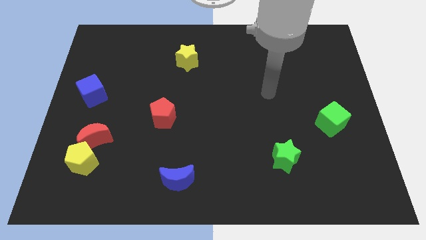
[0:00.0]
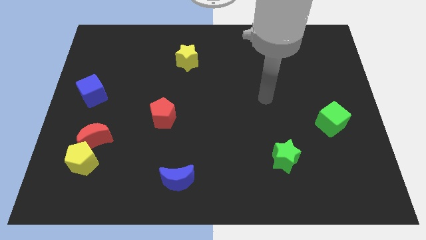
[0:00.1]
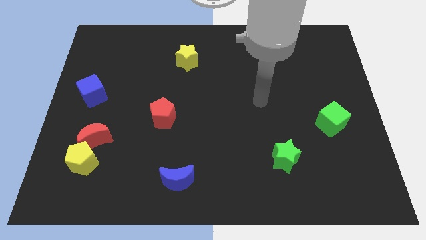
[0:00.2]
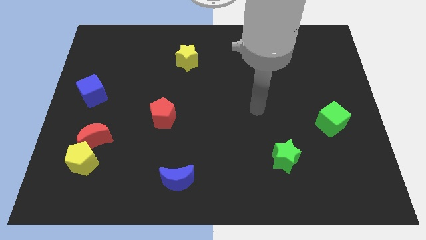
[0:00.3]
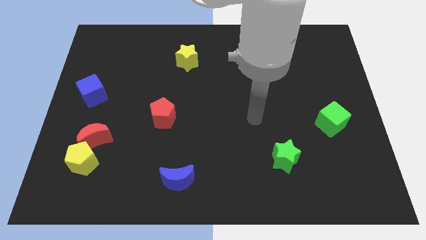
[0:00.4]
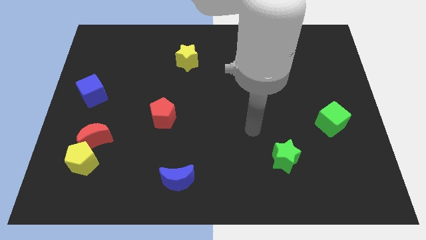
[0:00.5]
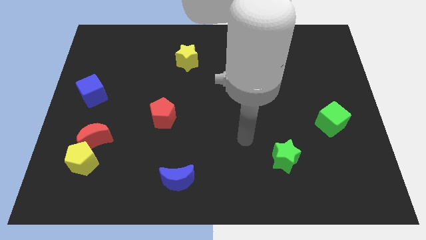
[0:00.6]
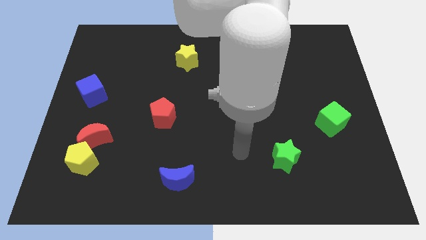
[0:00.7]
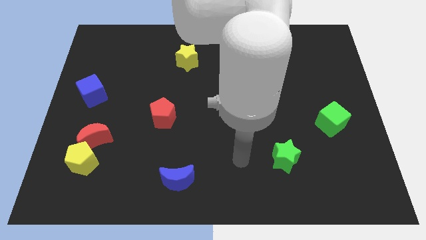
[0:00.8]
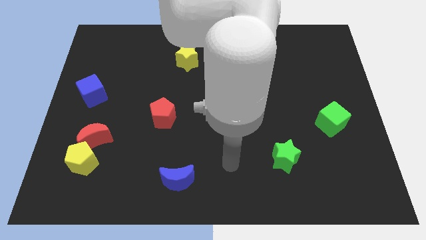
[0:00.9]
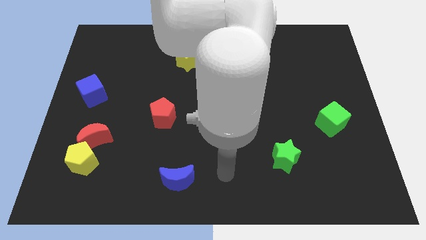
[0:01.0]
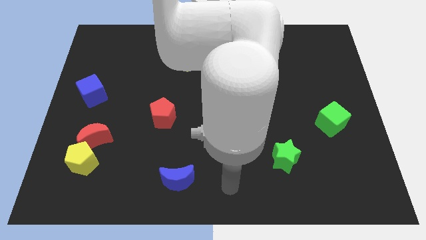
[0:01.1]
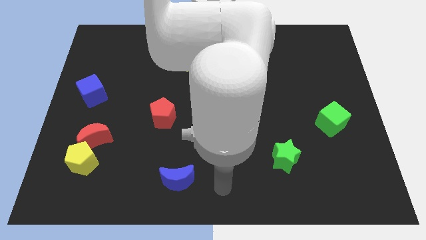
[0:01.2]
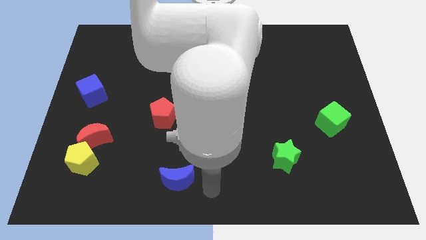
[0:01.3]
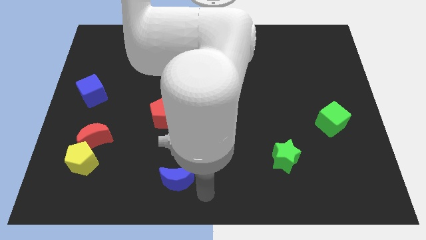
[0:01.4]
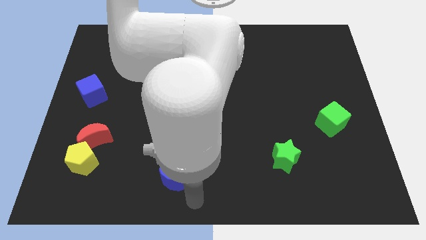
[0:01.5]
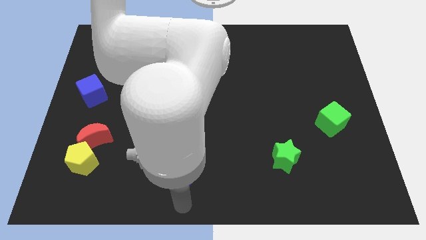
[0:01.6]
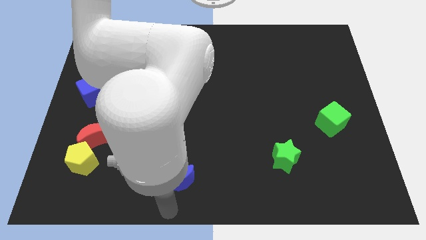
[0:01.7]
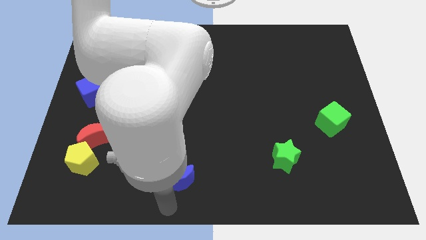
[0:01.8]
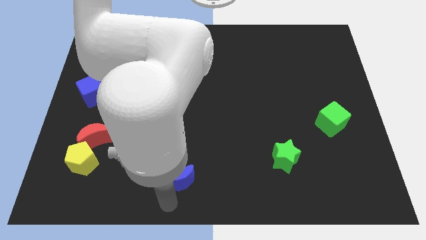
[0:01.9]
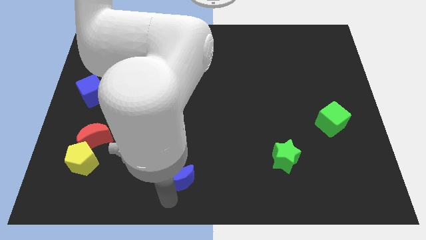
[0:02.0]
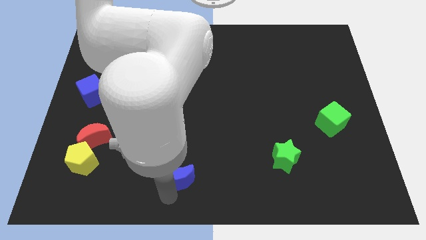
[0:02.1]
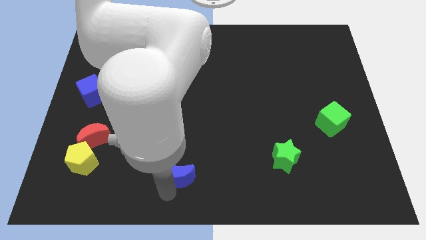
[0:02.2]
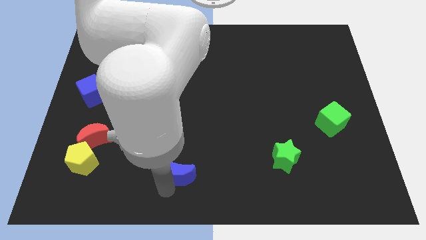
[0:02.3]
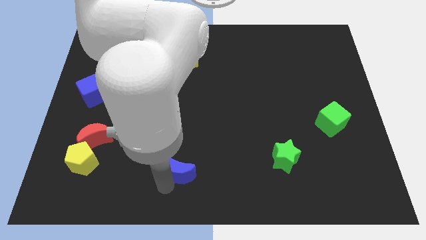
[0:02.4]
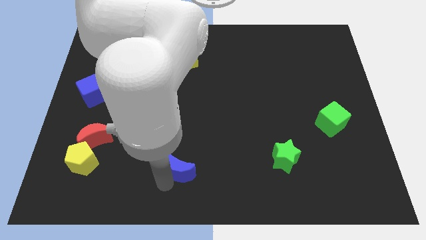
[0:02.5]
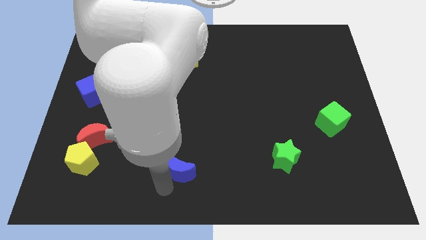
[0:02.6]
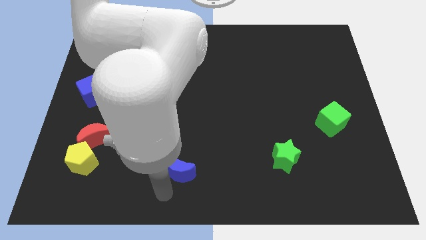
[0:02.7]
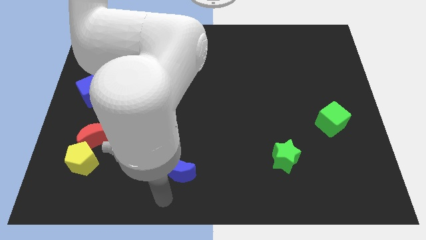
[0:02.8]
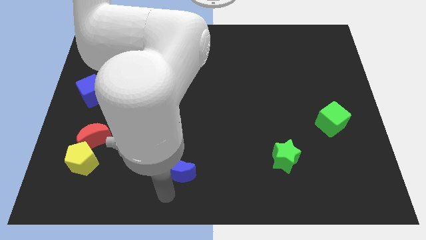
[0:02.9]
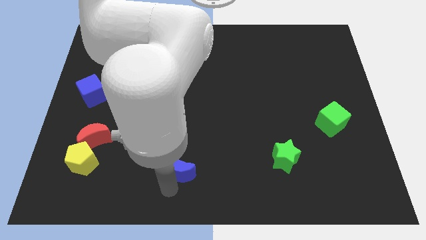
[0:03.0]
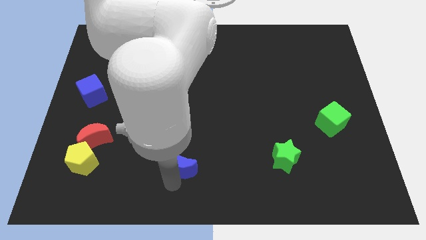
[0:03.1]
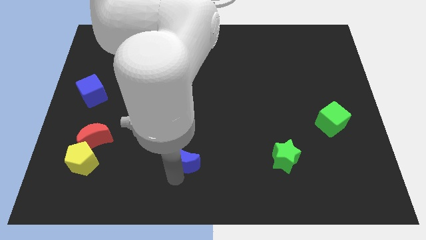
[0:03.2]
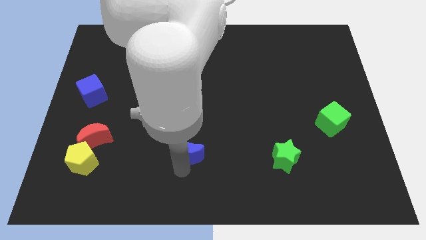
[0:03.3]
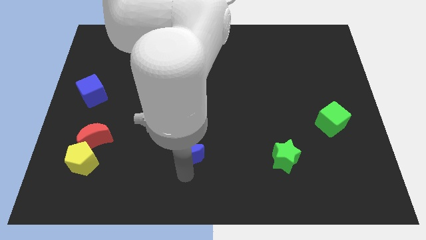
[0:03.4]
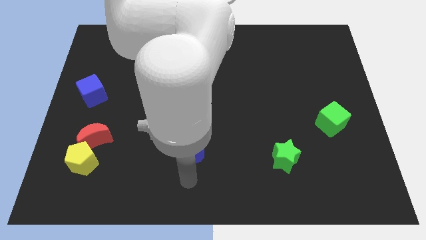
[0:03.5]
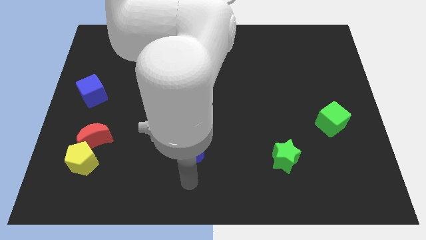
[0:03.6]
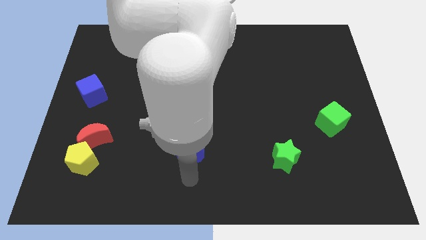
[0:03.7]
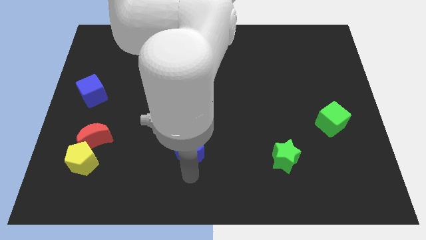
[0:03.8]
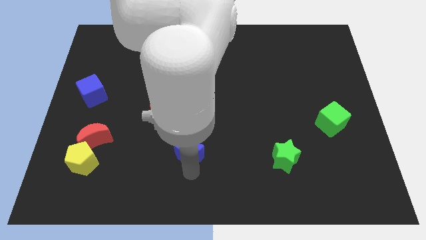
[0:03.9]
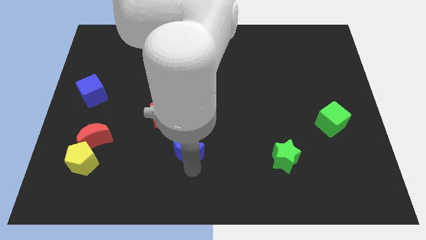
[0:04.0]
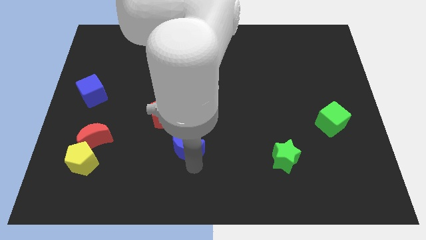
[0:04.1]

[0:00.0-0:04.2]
move the blue moon up slightly

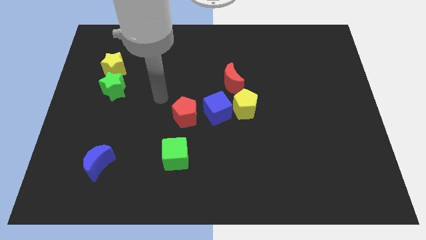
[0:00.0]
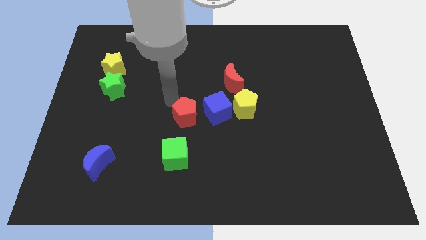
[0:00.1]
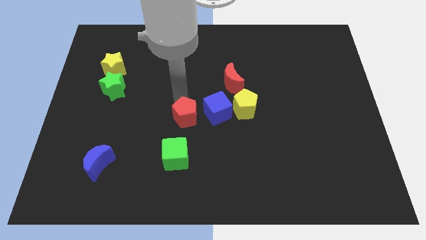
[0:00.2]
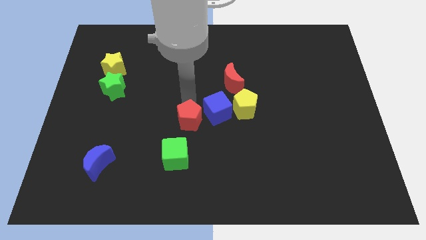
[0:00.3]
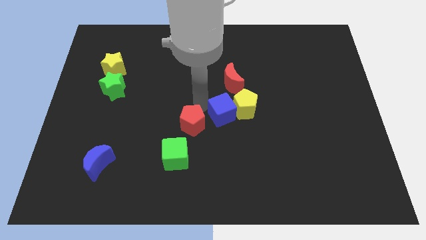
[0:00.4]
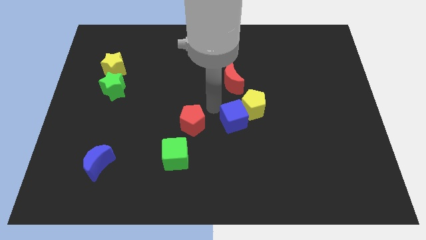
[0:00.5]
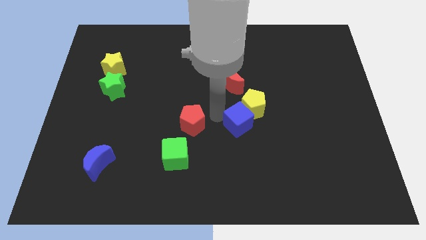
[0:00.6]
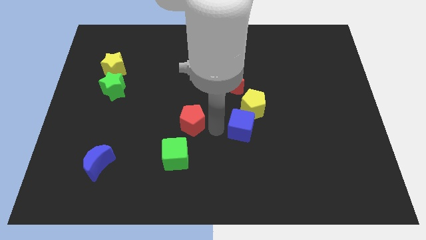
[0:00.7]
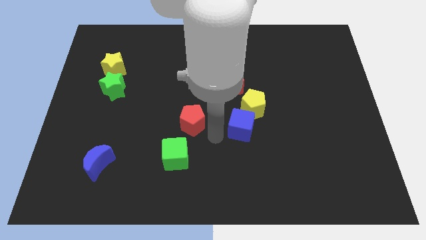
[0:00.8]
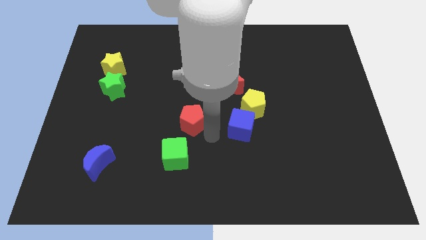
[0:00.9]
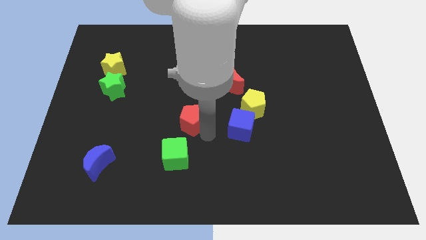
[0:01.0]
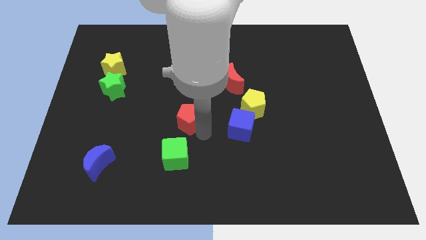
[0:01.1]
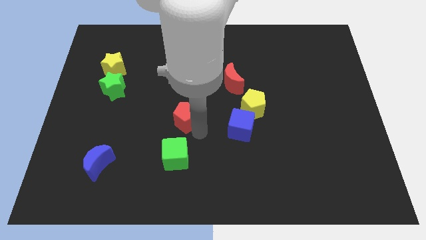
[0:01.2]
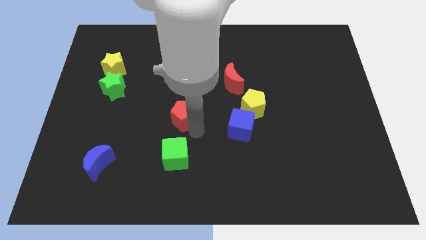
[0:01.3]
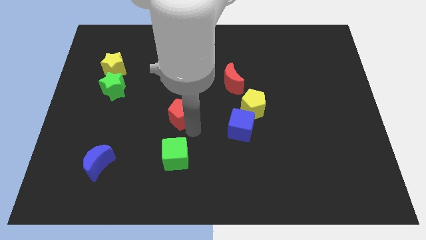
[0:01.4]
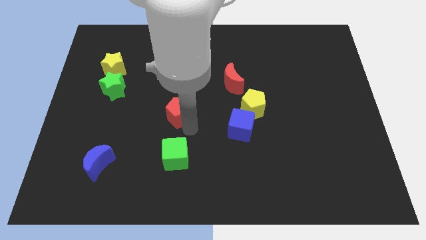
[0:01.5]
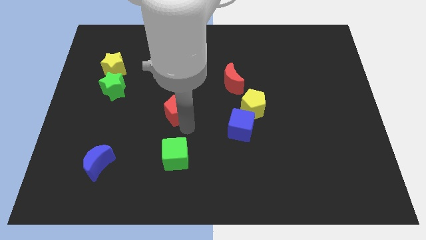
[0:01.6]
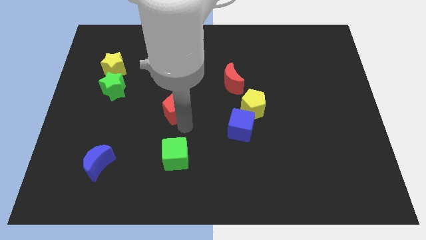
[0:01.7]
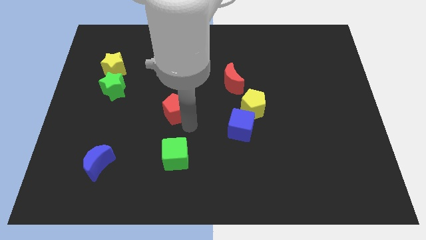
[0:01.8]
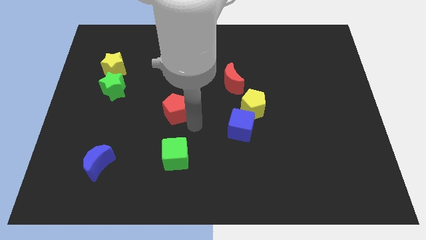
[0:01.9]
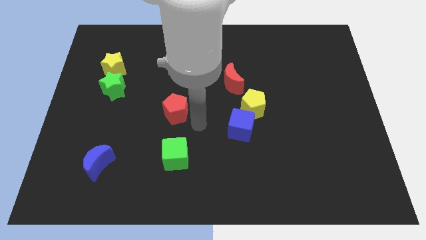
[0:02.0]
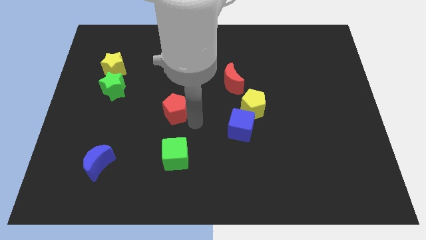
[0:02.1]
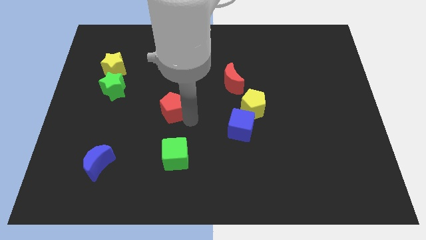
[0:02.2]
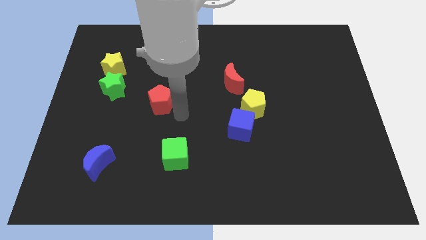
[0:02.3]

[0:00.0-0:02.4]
move the red pentagon up and then left somewhat

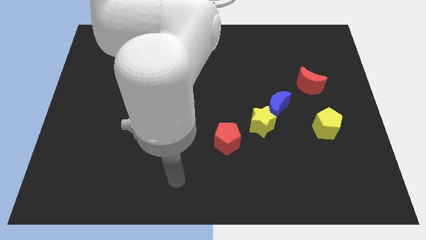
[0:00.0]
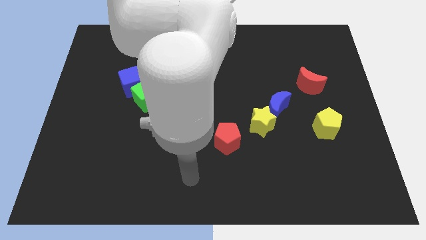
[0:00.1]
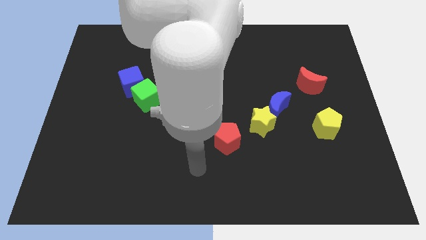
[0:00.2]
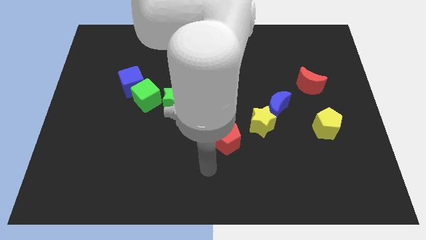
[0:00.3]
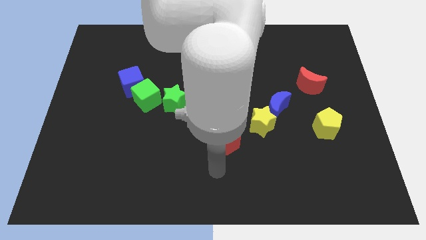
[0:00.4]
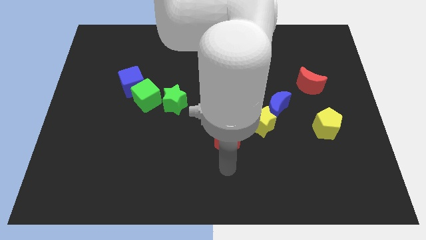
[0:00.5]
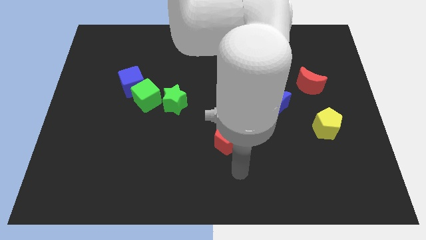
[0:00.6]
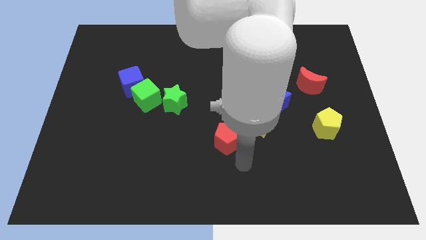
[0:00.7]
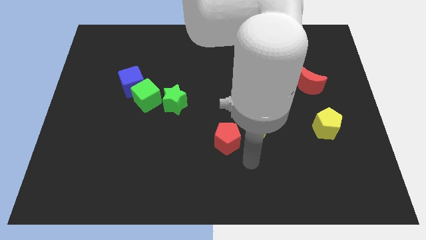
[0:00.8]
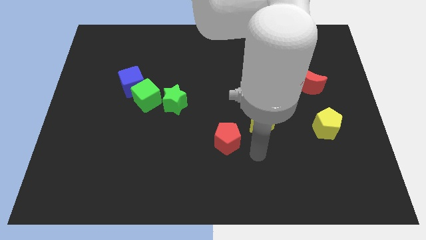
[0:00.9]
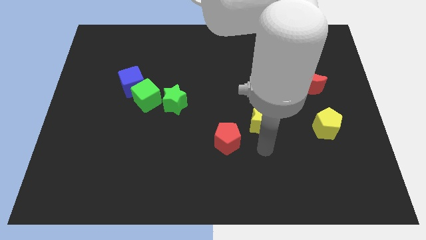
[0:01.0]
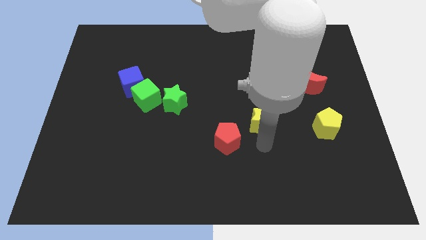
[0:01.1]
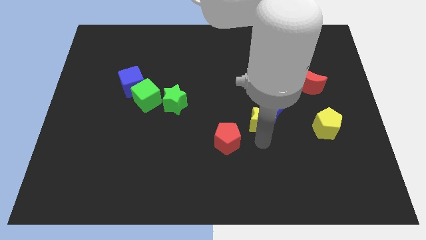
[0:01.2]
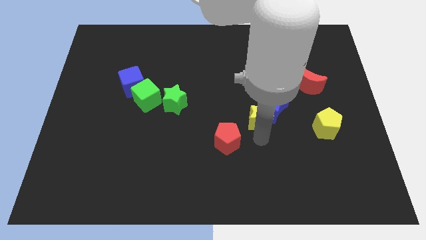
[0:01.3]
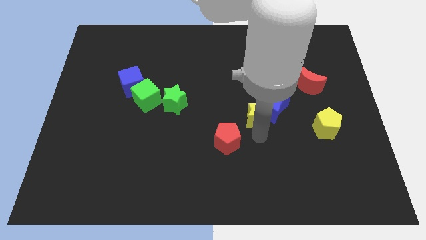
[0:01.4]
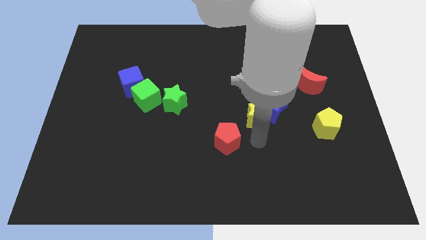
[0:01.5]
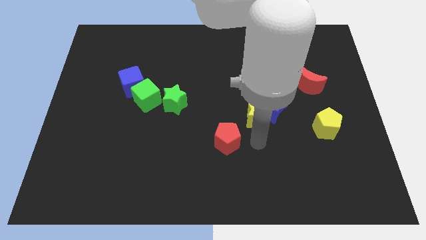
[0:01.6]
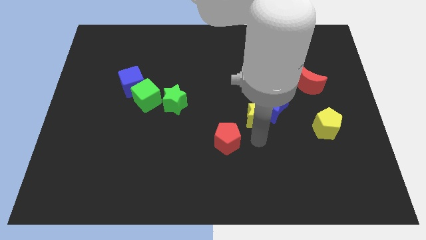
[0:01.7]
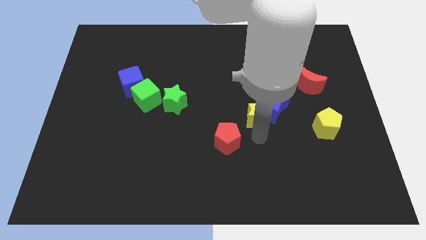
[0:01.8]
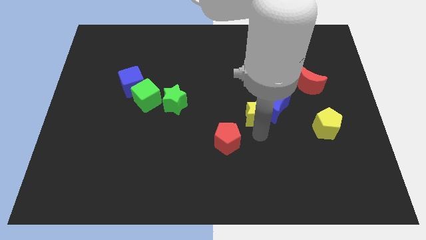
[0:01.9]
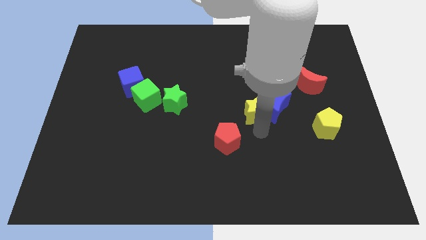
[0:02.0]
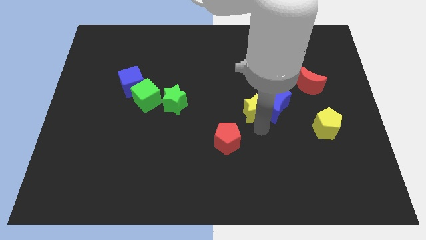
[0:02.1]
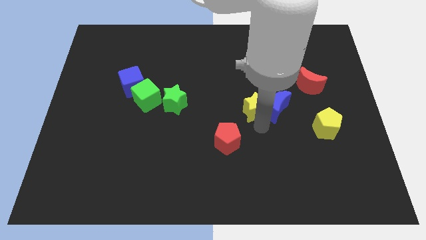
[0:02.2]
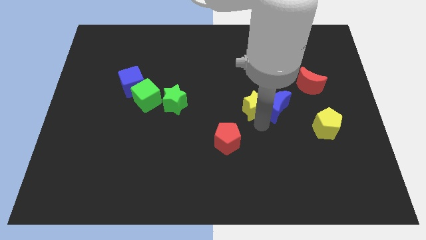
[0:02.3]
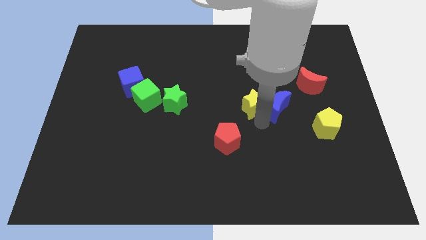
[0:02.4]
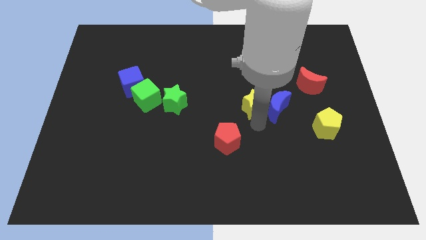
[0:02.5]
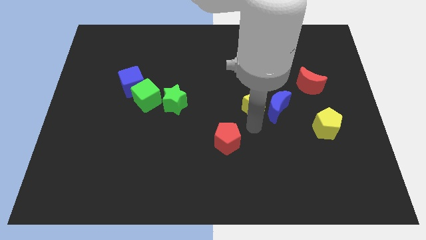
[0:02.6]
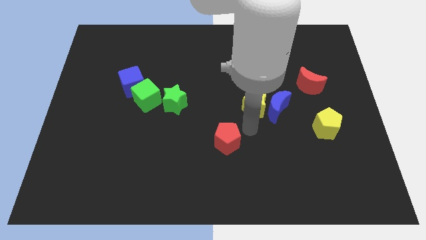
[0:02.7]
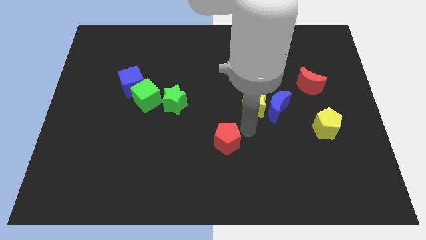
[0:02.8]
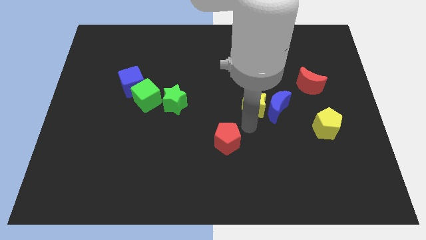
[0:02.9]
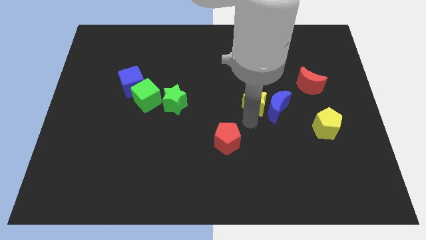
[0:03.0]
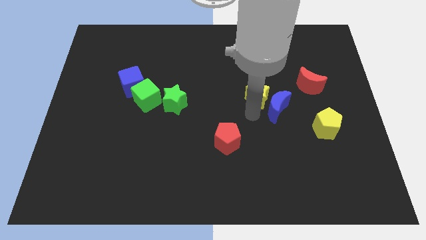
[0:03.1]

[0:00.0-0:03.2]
slide the yellow star somewhat up
